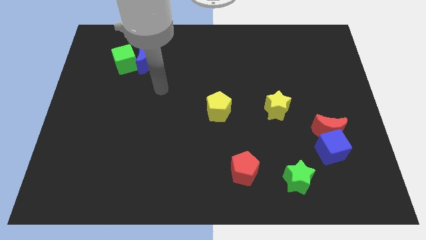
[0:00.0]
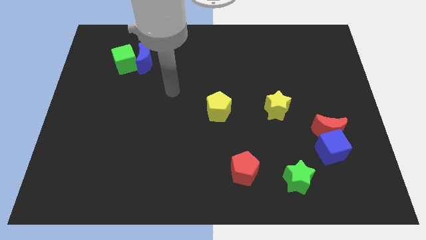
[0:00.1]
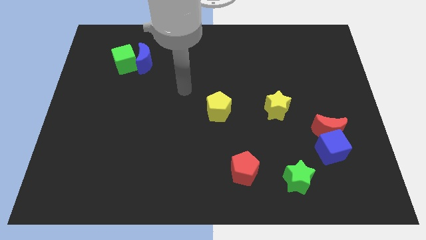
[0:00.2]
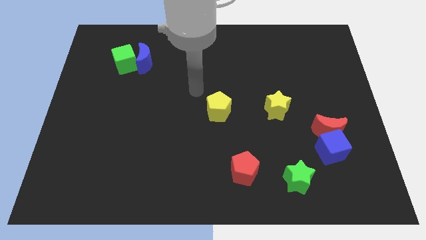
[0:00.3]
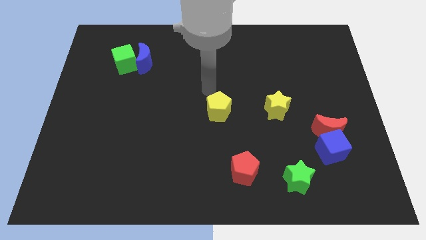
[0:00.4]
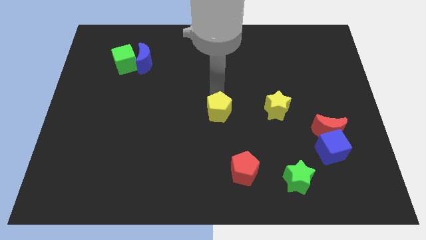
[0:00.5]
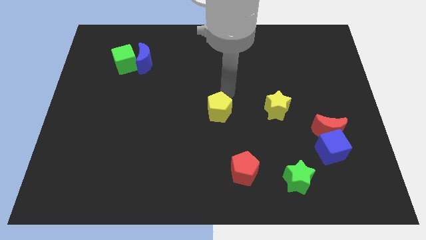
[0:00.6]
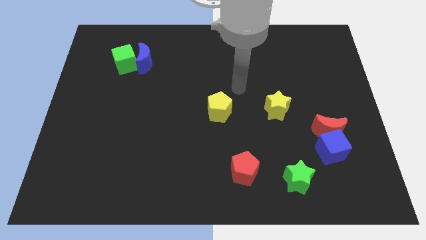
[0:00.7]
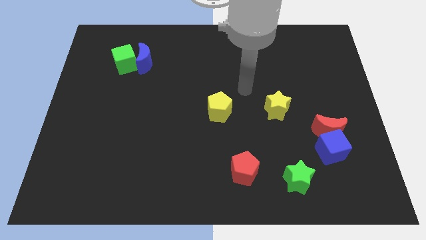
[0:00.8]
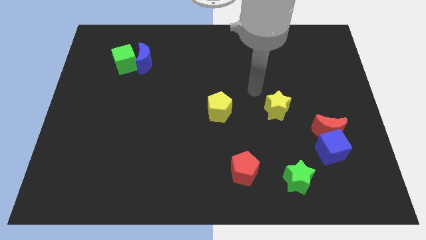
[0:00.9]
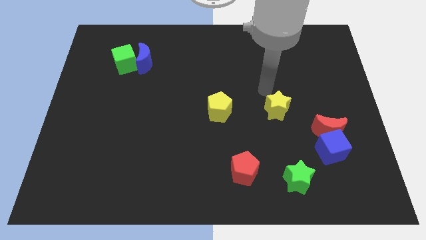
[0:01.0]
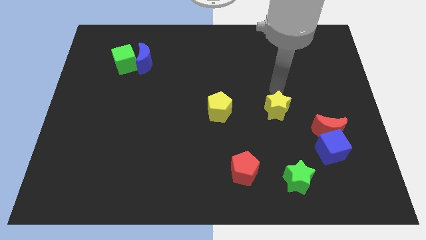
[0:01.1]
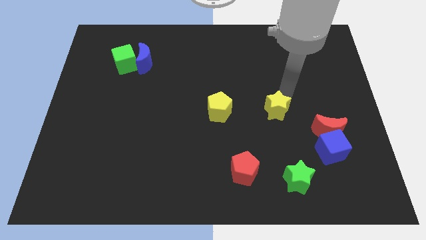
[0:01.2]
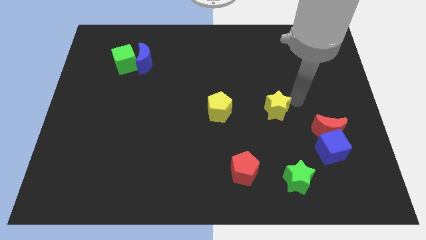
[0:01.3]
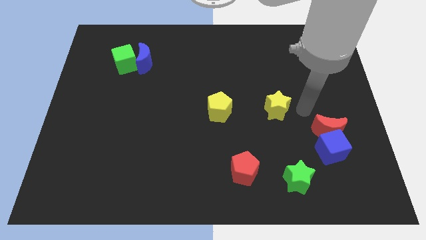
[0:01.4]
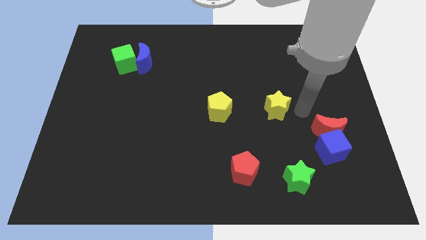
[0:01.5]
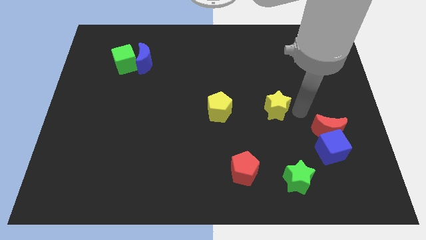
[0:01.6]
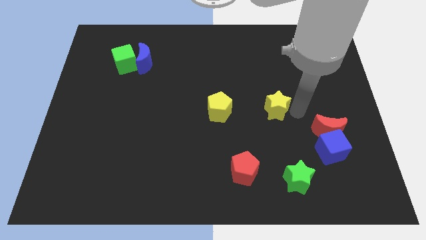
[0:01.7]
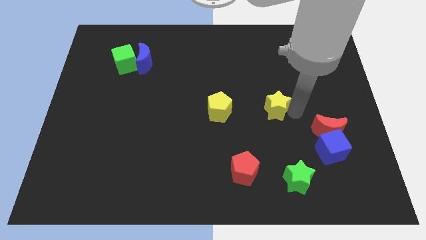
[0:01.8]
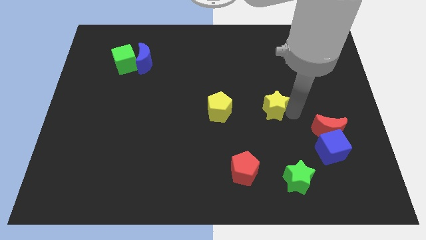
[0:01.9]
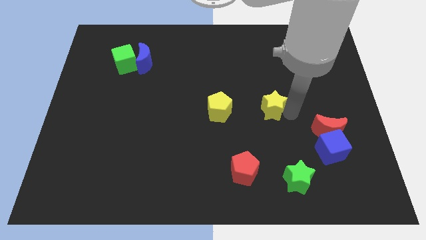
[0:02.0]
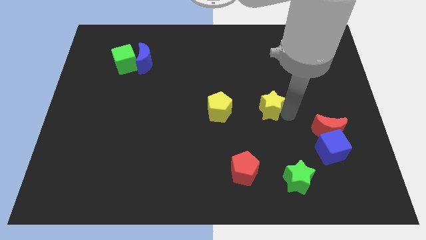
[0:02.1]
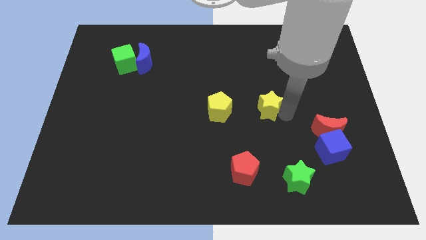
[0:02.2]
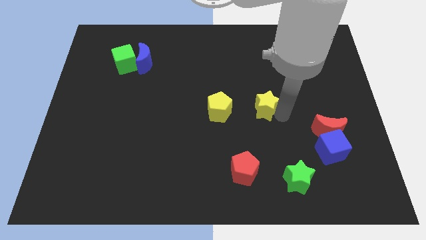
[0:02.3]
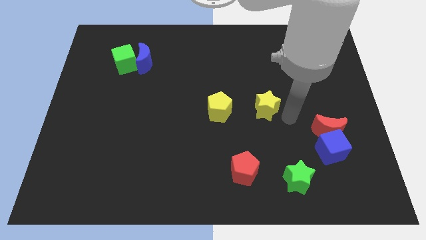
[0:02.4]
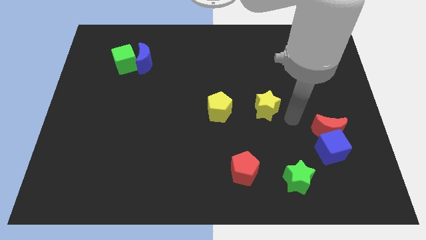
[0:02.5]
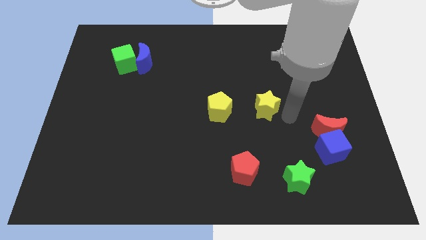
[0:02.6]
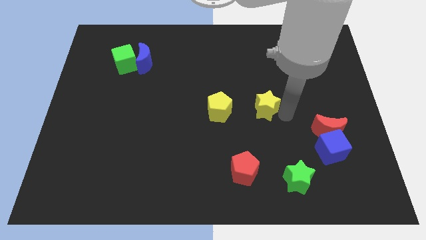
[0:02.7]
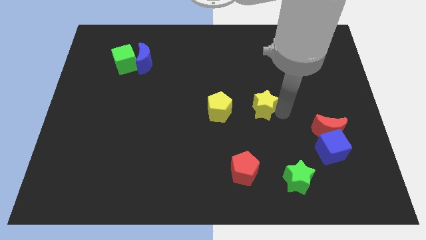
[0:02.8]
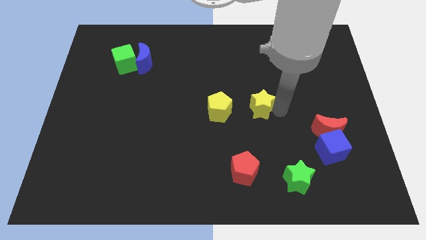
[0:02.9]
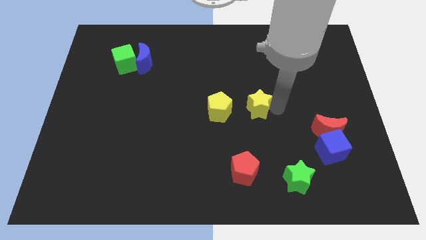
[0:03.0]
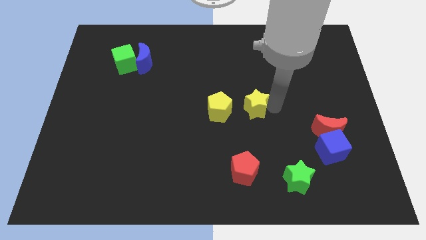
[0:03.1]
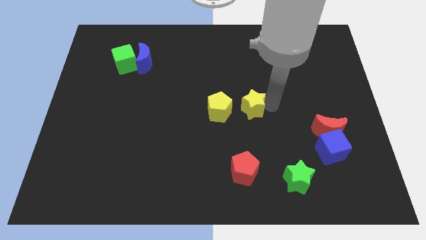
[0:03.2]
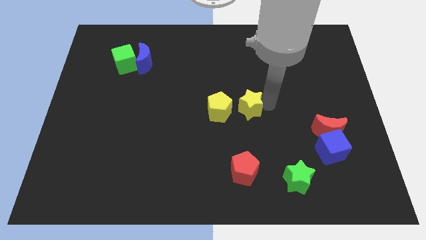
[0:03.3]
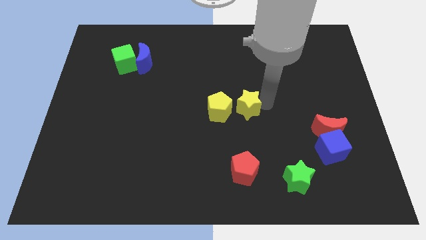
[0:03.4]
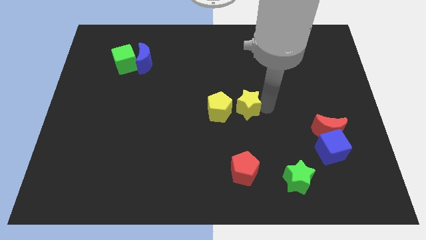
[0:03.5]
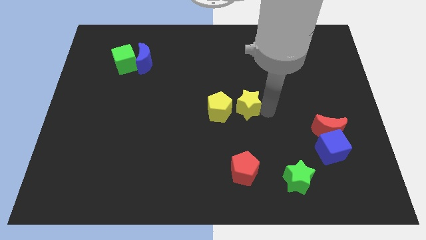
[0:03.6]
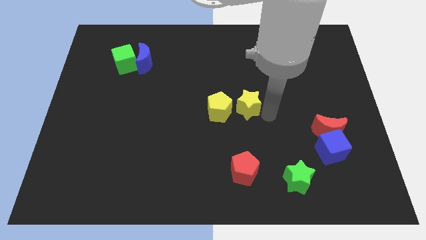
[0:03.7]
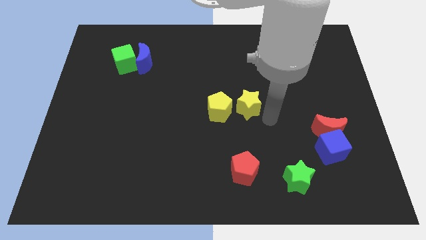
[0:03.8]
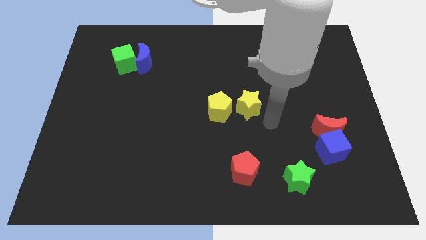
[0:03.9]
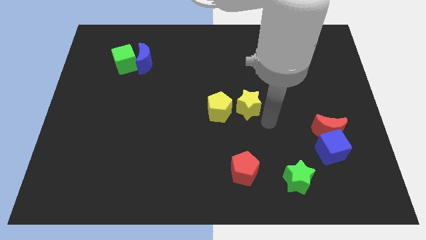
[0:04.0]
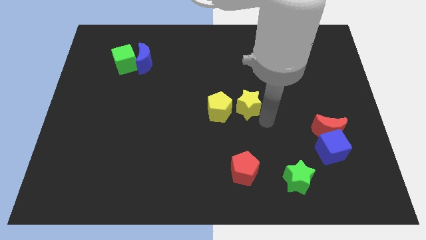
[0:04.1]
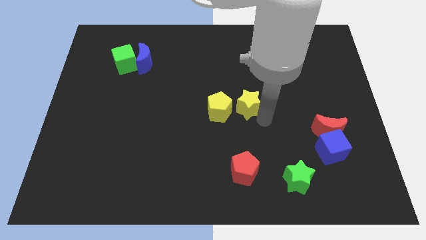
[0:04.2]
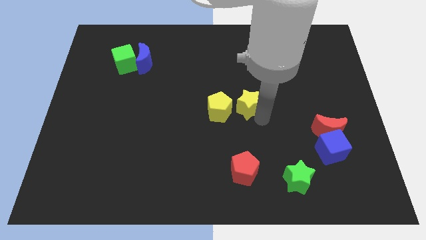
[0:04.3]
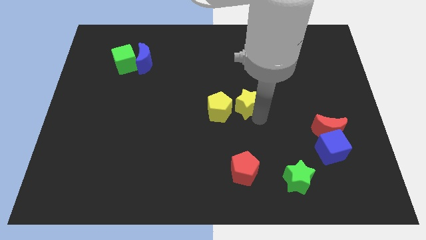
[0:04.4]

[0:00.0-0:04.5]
push the yellow star left somewhat

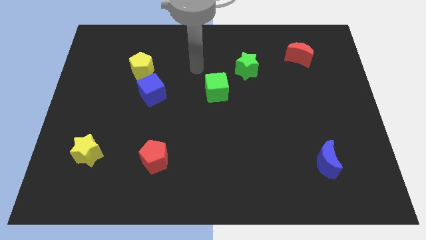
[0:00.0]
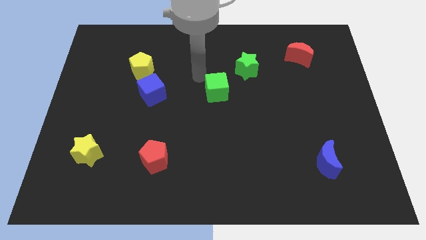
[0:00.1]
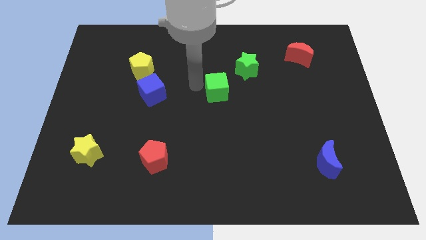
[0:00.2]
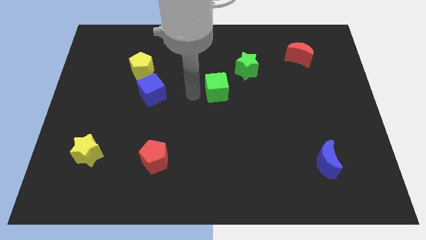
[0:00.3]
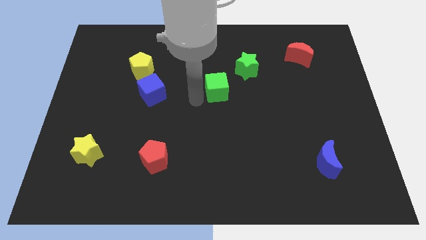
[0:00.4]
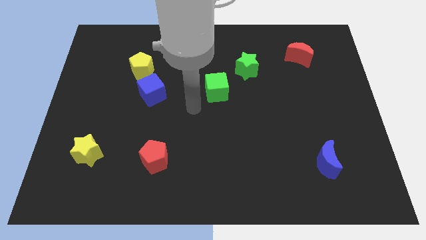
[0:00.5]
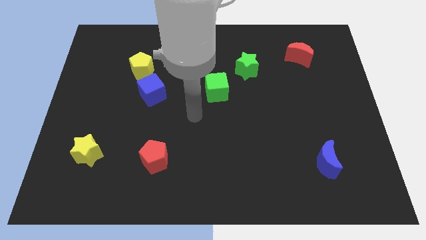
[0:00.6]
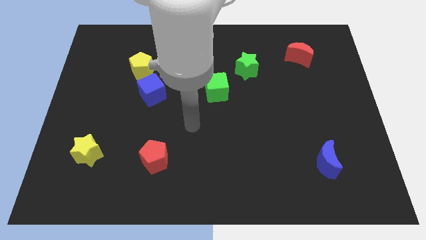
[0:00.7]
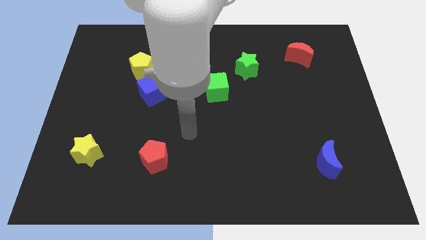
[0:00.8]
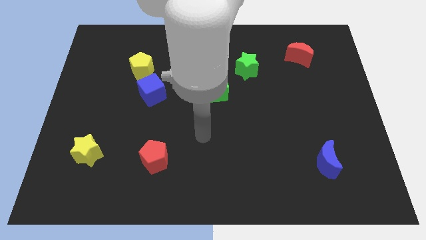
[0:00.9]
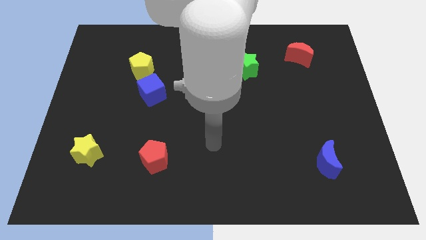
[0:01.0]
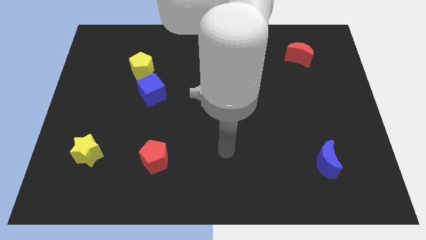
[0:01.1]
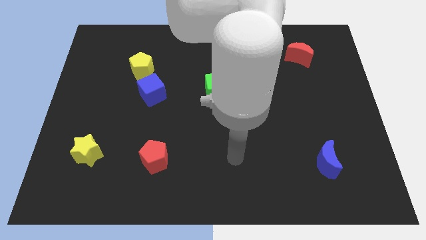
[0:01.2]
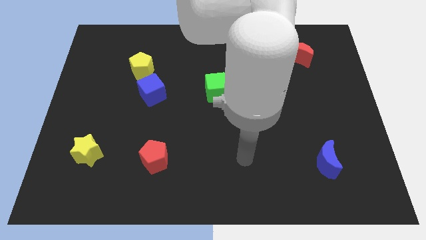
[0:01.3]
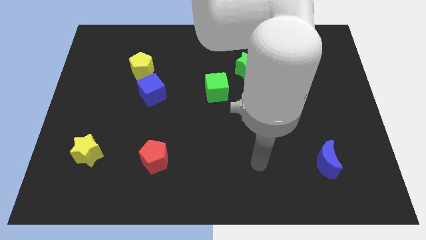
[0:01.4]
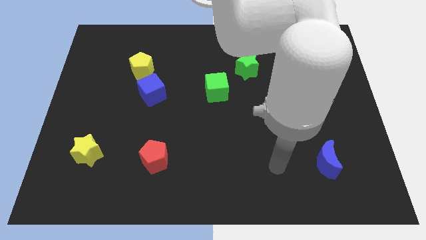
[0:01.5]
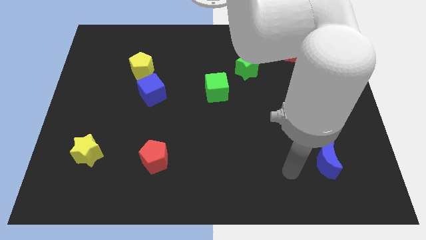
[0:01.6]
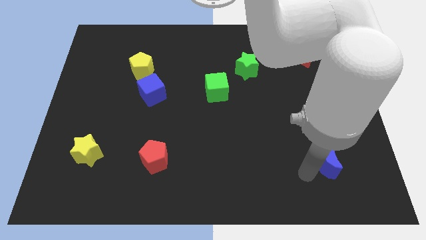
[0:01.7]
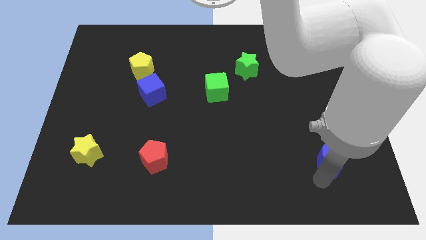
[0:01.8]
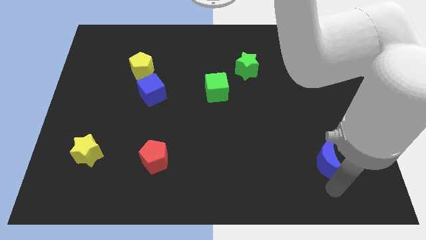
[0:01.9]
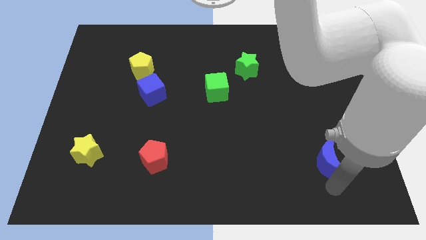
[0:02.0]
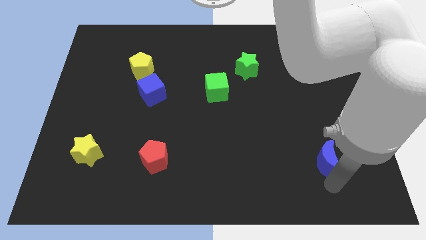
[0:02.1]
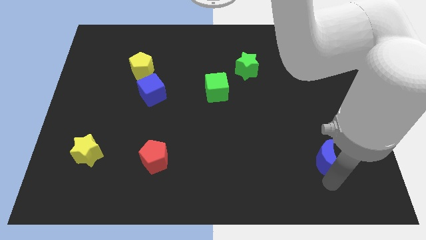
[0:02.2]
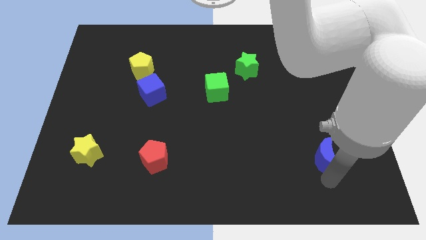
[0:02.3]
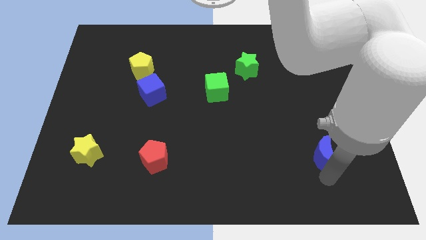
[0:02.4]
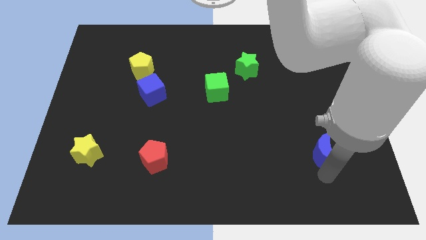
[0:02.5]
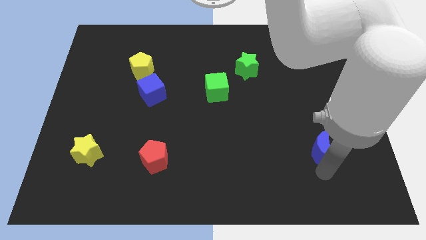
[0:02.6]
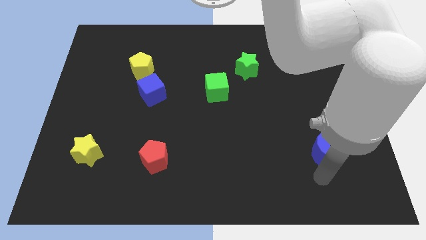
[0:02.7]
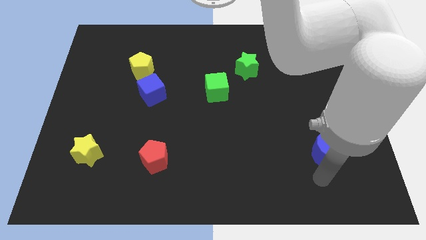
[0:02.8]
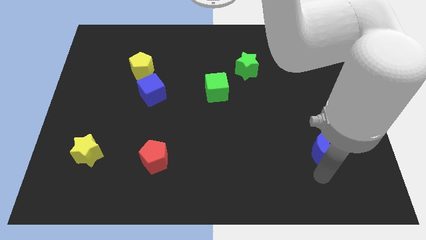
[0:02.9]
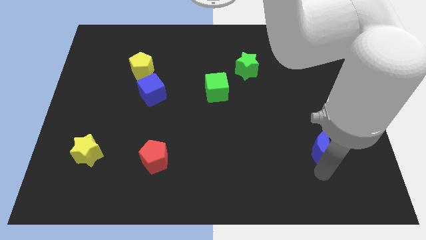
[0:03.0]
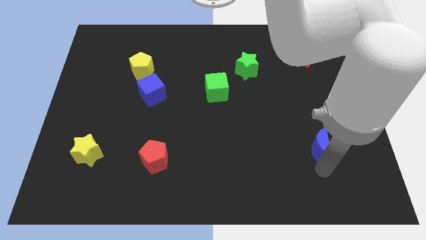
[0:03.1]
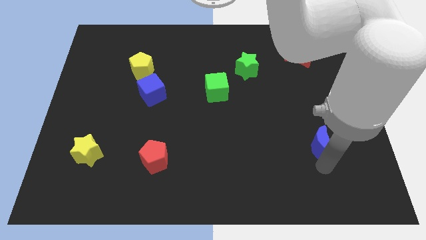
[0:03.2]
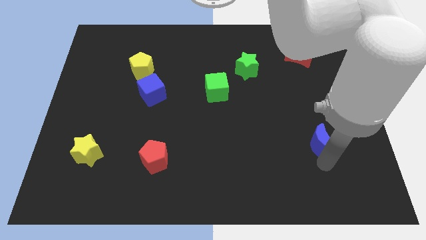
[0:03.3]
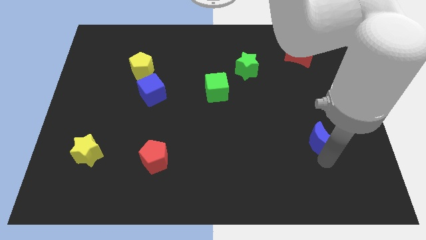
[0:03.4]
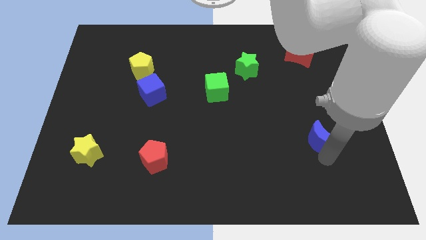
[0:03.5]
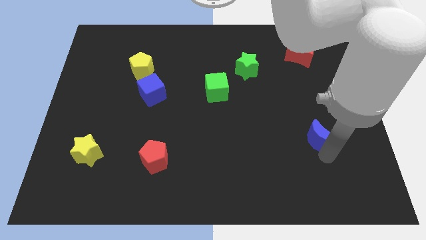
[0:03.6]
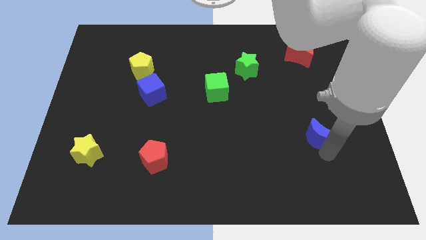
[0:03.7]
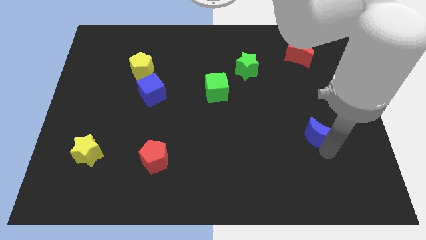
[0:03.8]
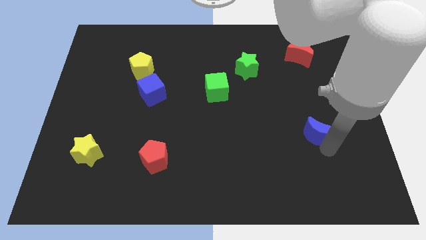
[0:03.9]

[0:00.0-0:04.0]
slide the blue moon upwards a little bit
